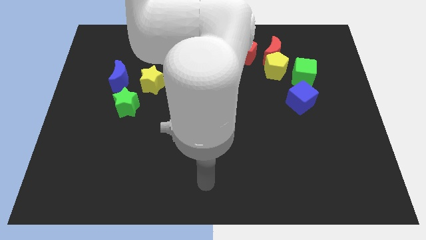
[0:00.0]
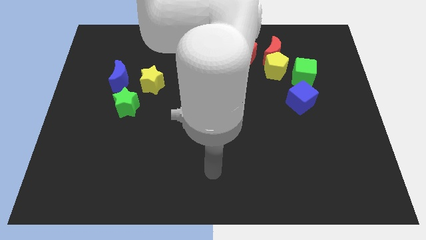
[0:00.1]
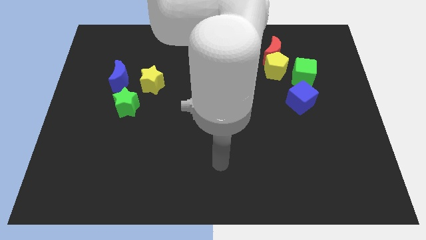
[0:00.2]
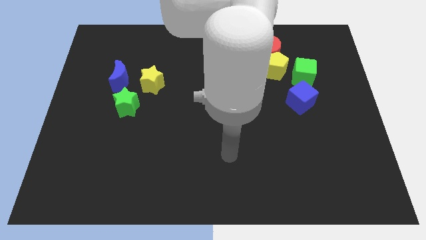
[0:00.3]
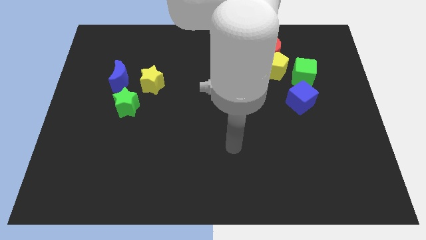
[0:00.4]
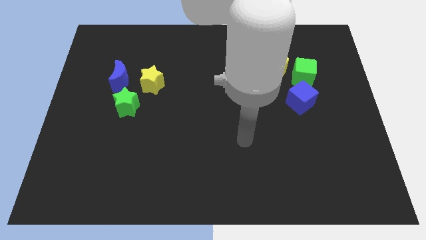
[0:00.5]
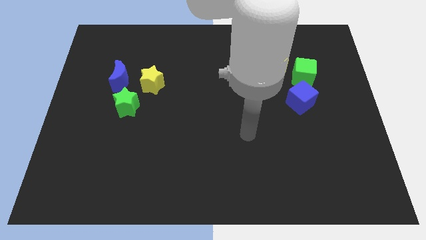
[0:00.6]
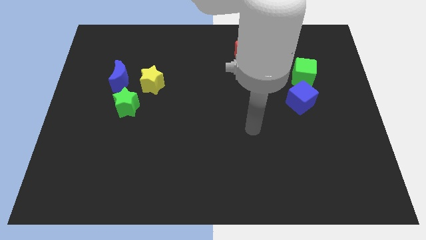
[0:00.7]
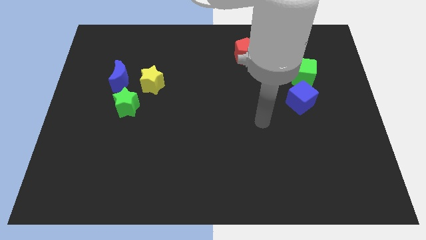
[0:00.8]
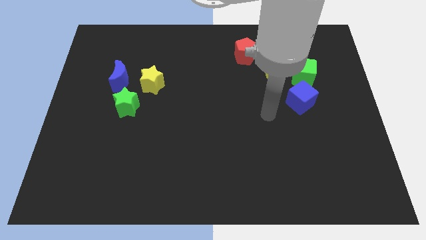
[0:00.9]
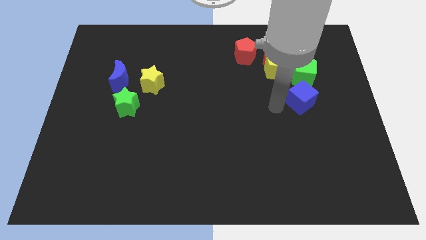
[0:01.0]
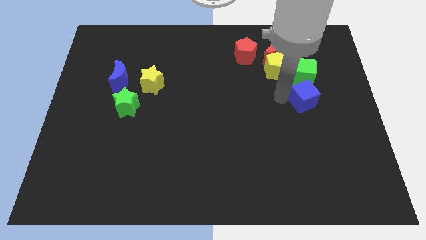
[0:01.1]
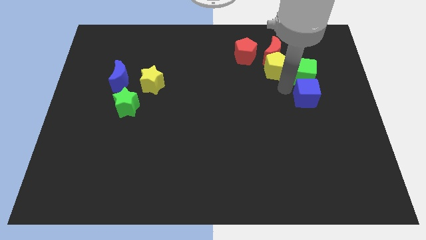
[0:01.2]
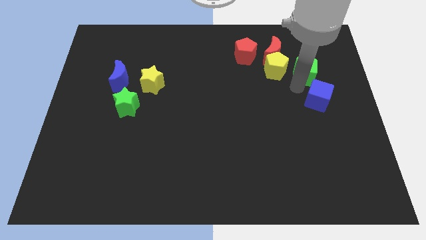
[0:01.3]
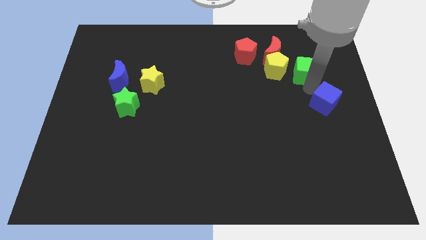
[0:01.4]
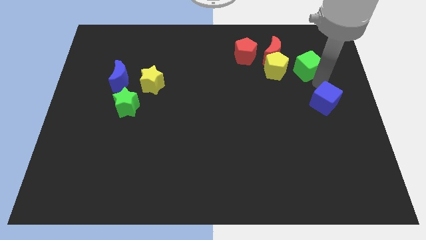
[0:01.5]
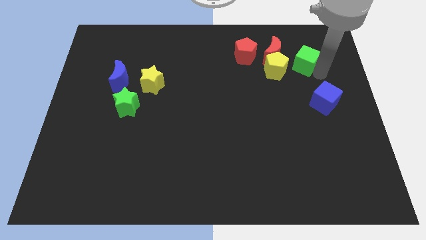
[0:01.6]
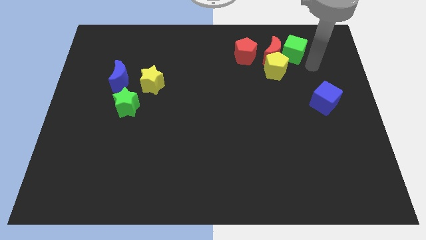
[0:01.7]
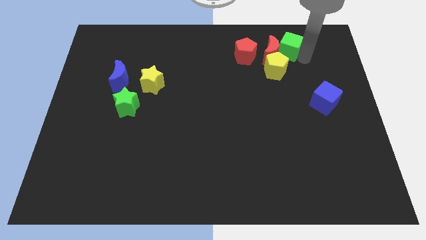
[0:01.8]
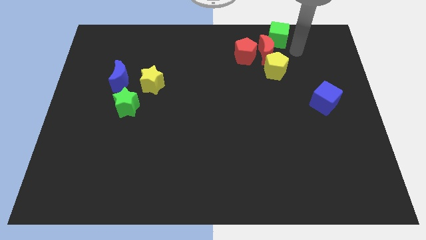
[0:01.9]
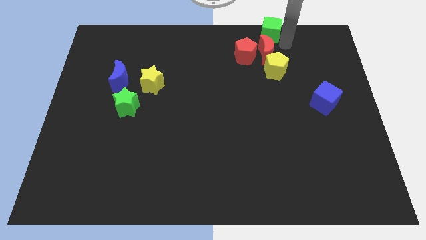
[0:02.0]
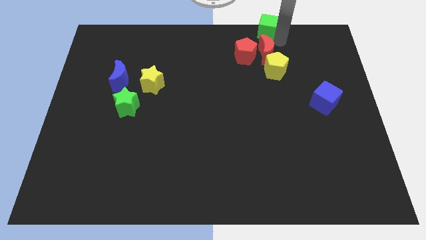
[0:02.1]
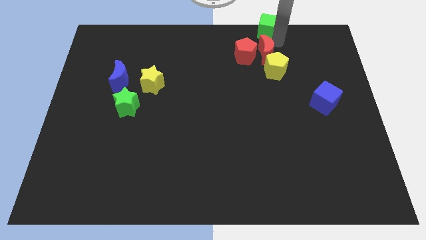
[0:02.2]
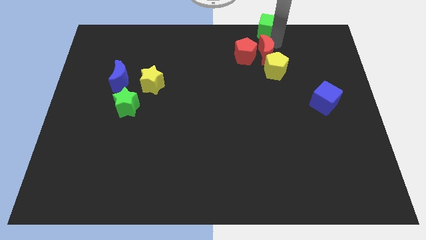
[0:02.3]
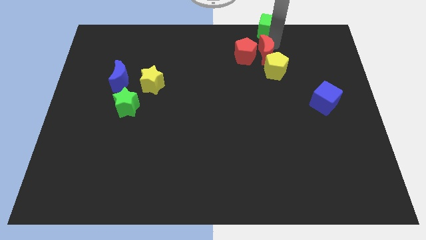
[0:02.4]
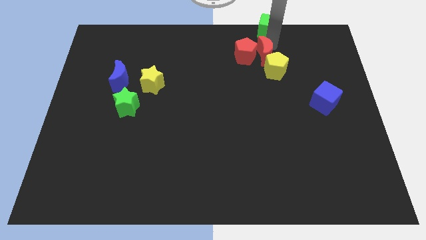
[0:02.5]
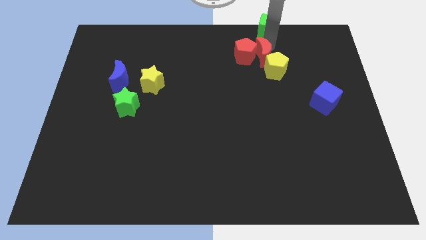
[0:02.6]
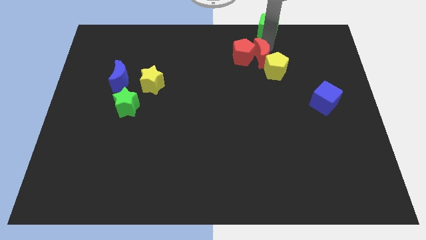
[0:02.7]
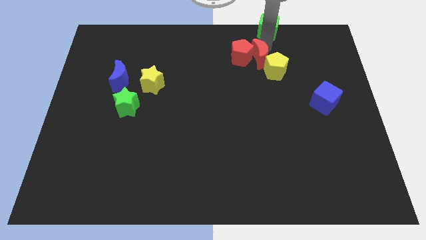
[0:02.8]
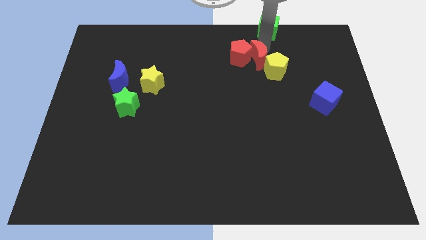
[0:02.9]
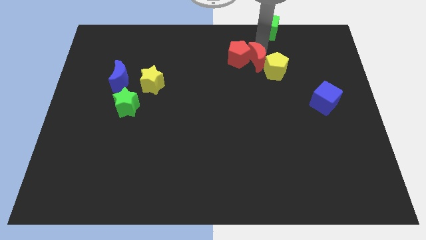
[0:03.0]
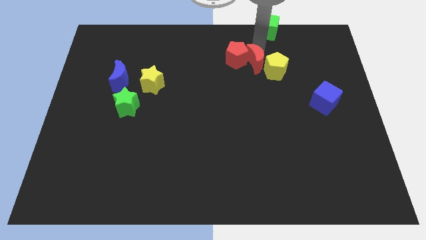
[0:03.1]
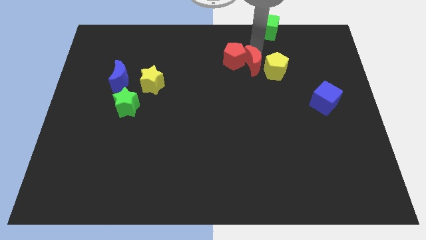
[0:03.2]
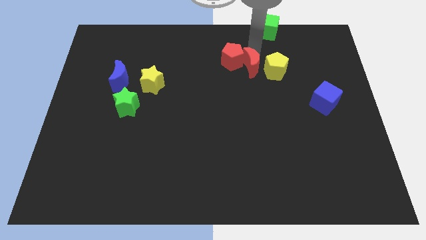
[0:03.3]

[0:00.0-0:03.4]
slightly push the red moon downwards and to the left diagonally

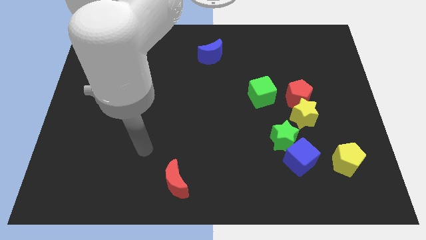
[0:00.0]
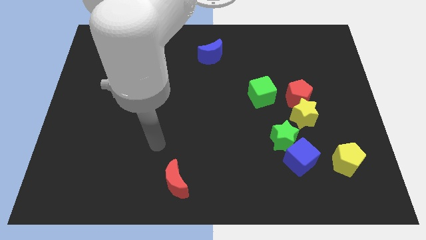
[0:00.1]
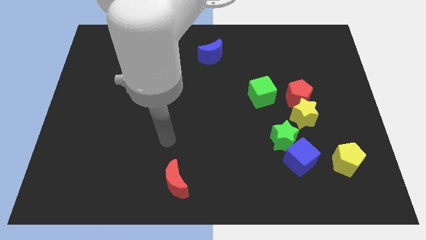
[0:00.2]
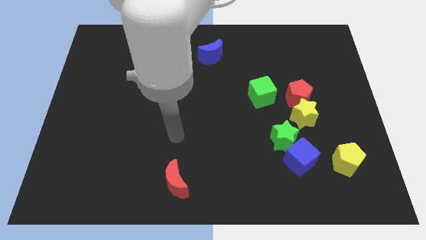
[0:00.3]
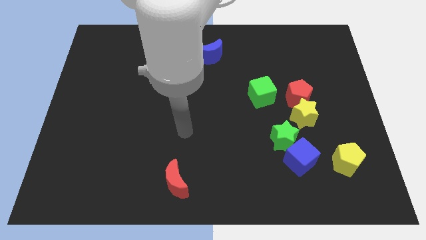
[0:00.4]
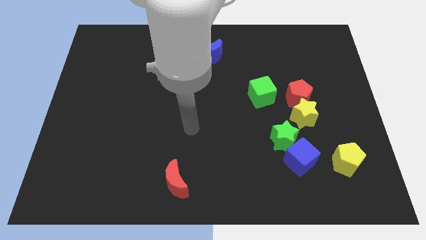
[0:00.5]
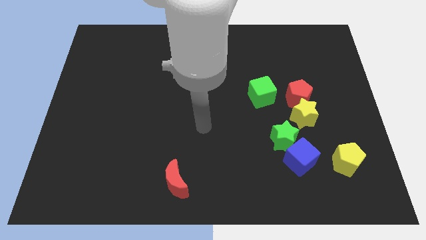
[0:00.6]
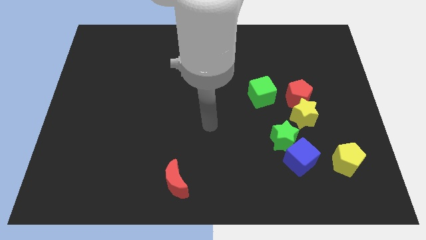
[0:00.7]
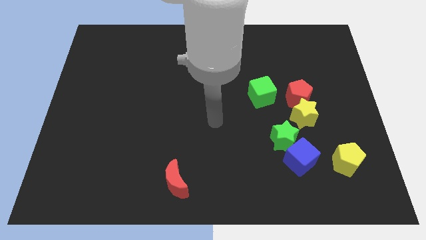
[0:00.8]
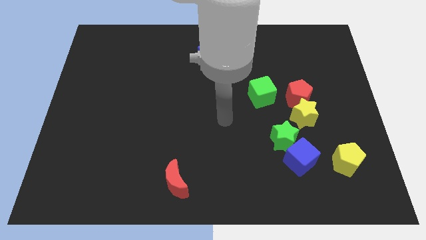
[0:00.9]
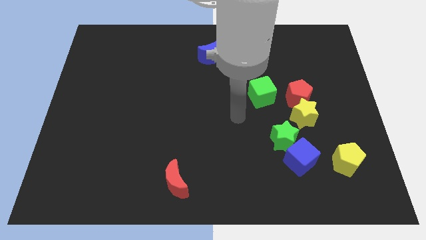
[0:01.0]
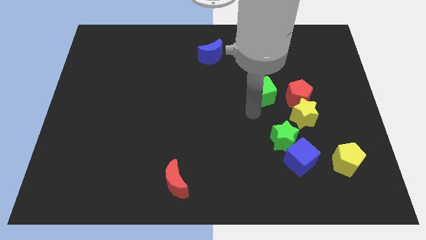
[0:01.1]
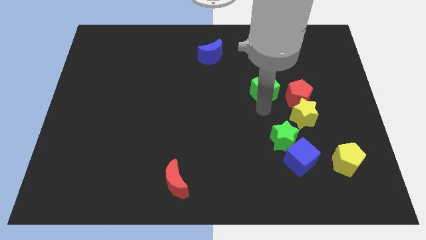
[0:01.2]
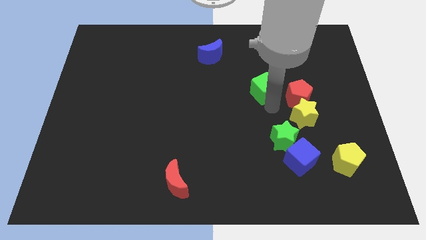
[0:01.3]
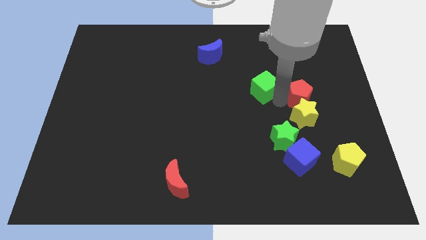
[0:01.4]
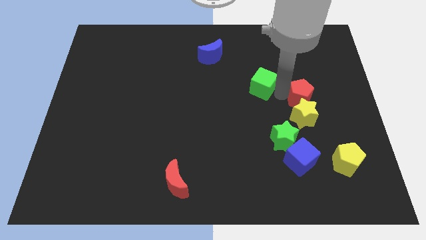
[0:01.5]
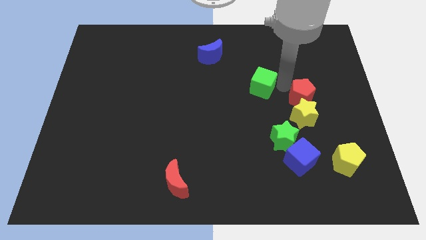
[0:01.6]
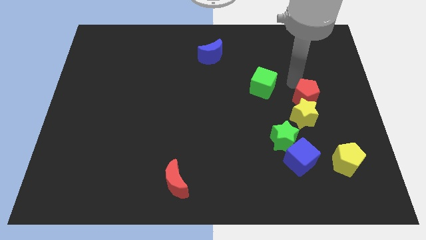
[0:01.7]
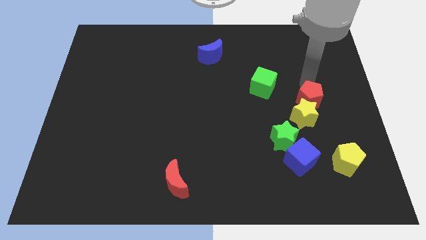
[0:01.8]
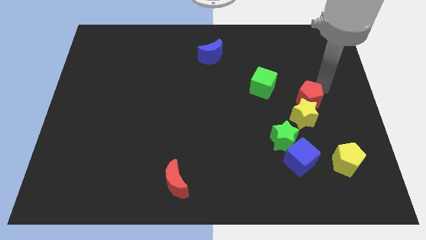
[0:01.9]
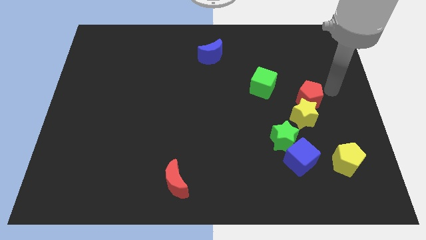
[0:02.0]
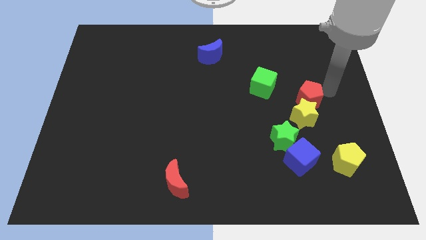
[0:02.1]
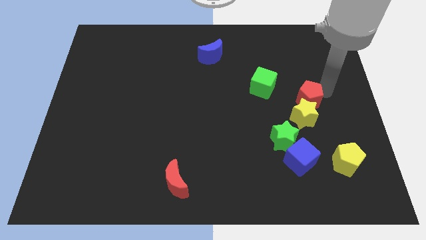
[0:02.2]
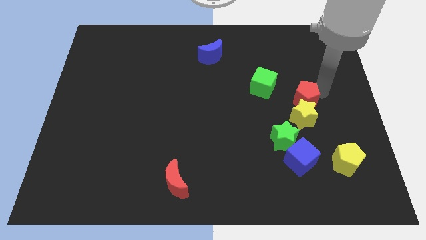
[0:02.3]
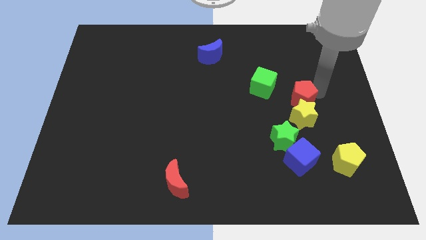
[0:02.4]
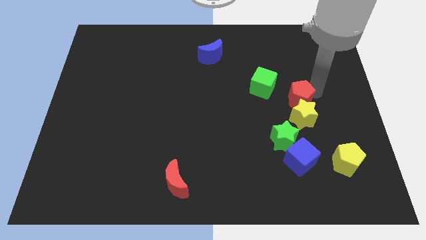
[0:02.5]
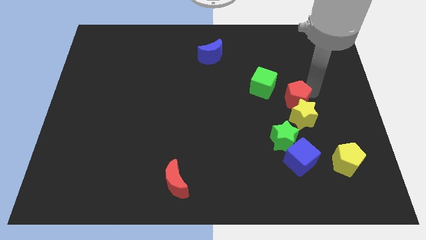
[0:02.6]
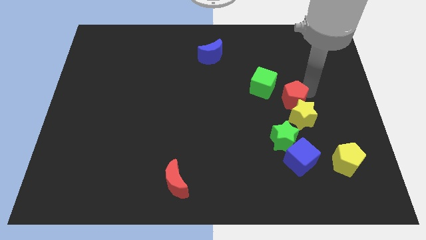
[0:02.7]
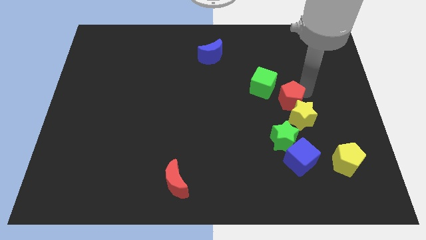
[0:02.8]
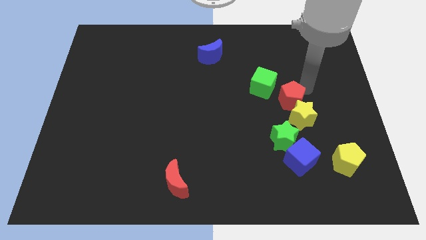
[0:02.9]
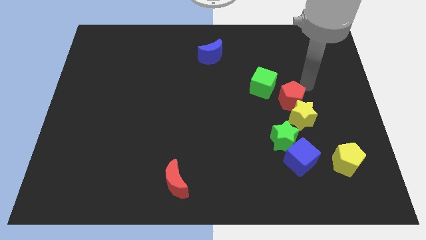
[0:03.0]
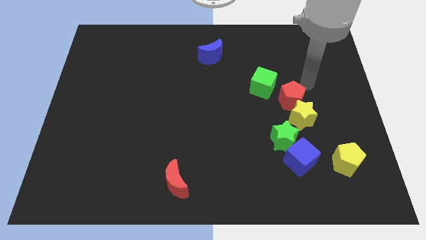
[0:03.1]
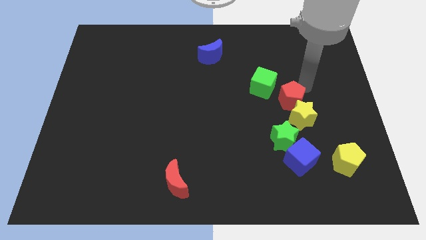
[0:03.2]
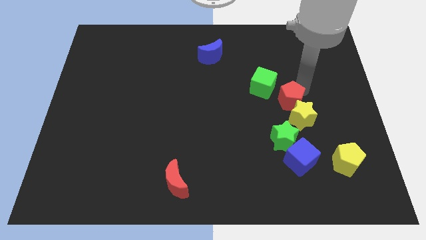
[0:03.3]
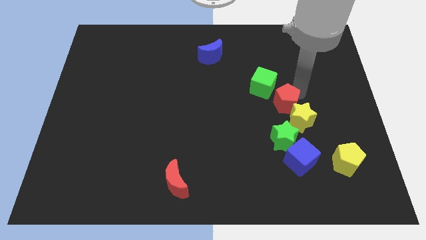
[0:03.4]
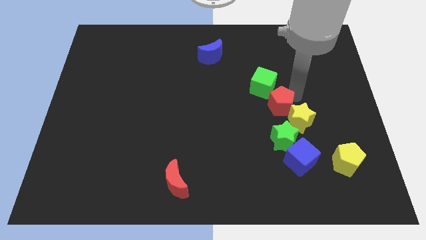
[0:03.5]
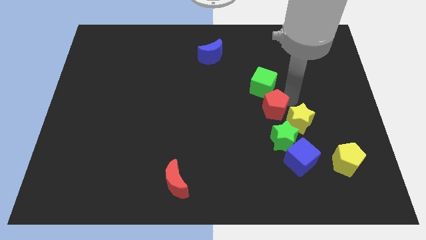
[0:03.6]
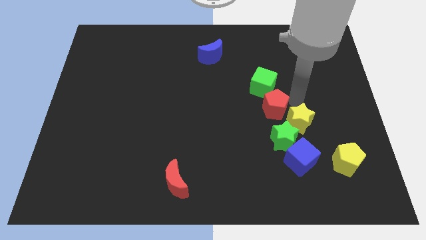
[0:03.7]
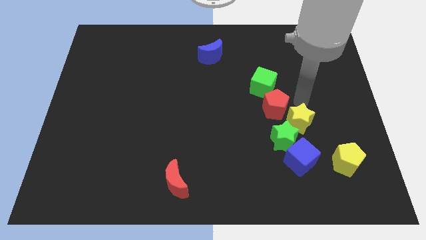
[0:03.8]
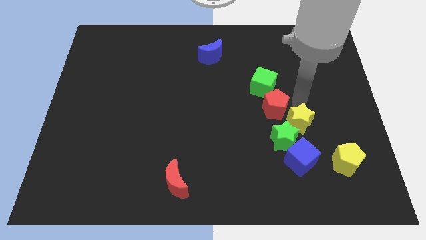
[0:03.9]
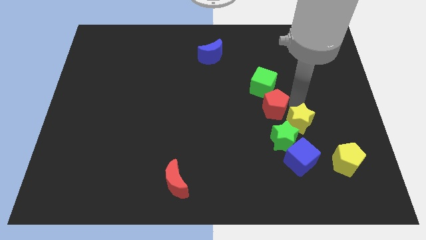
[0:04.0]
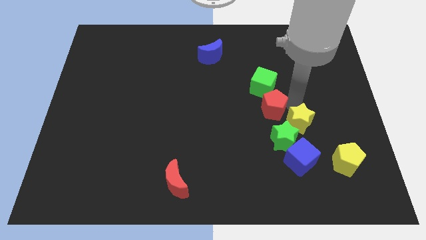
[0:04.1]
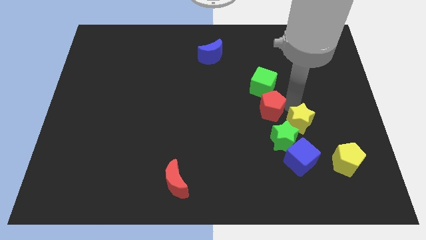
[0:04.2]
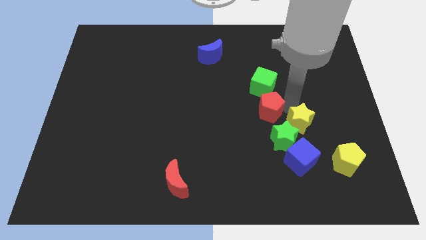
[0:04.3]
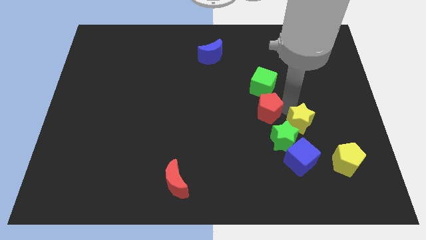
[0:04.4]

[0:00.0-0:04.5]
slide the red pentagon a little bit to the left
